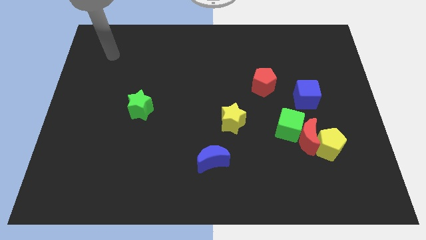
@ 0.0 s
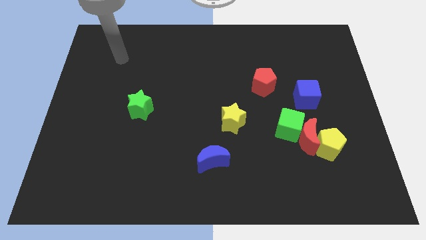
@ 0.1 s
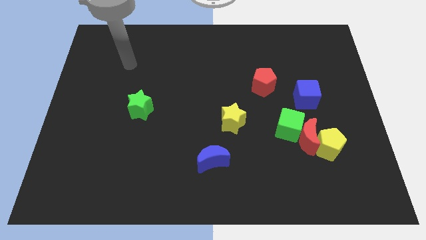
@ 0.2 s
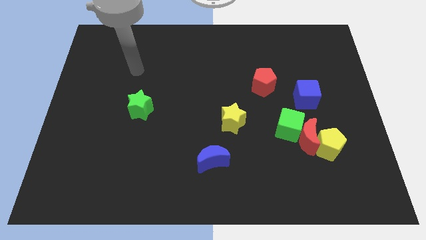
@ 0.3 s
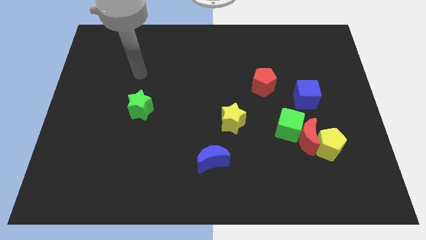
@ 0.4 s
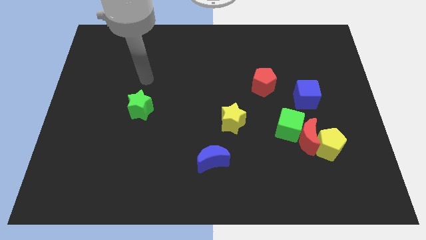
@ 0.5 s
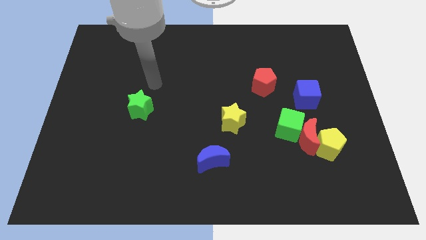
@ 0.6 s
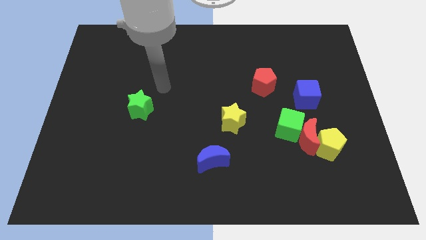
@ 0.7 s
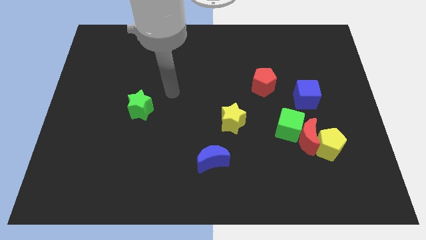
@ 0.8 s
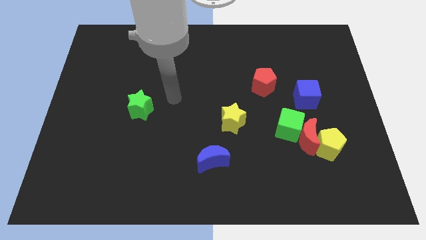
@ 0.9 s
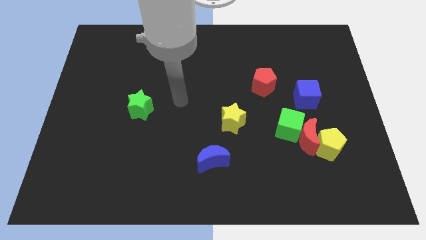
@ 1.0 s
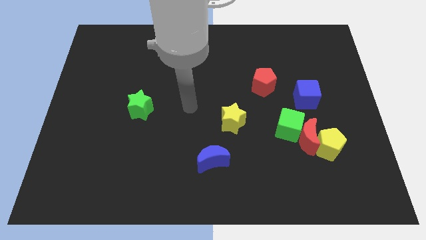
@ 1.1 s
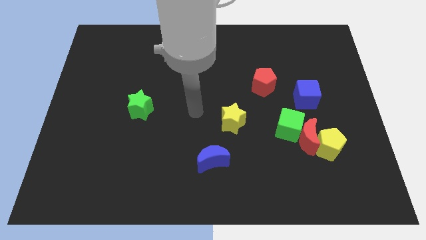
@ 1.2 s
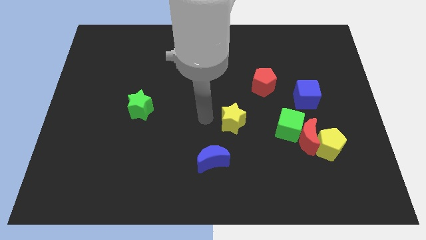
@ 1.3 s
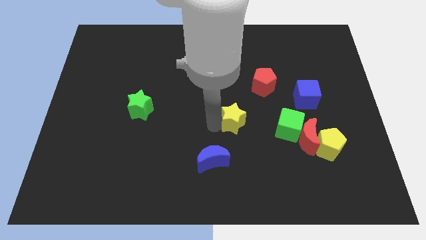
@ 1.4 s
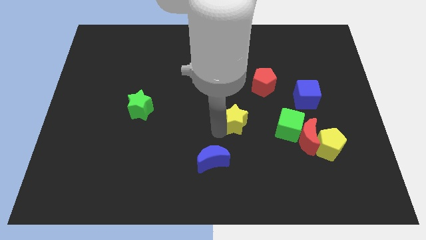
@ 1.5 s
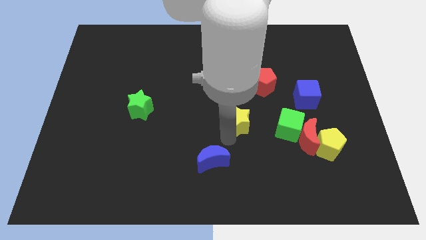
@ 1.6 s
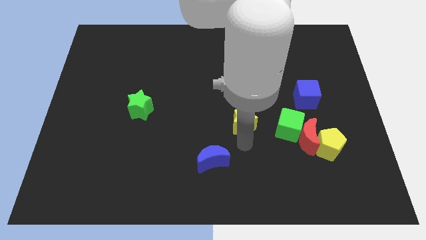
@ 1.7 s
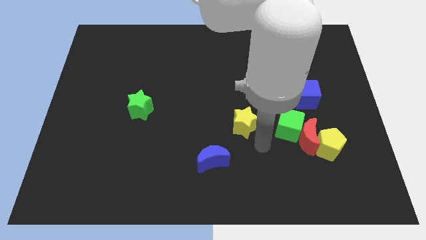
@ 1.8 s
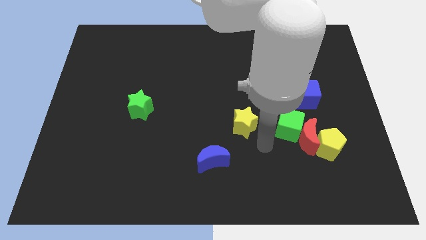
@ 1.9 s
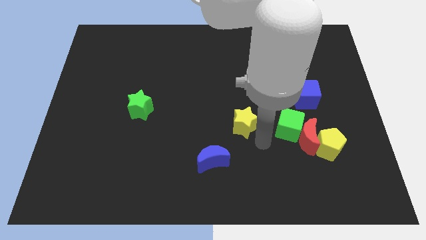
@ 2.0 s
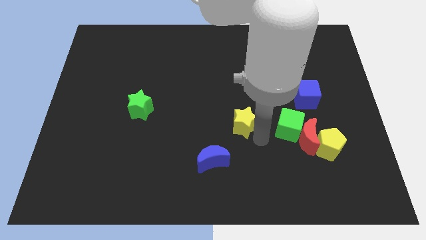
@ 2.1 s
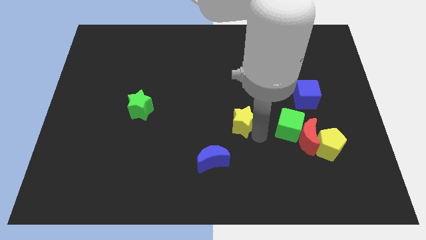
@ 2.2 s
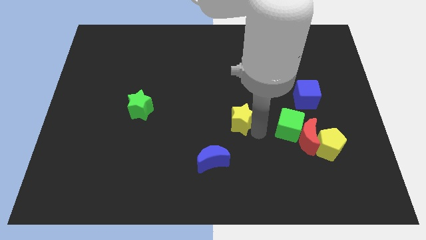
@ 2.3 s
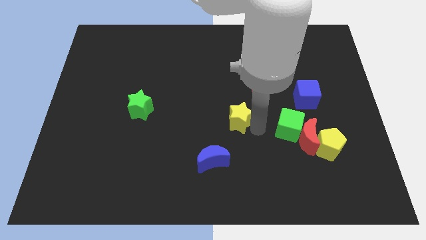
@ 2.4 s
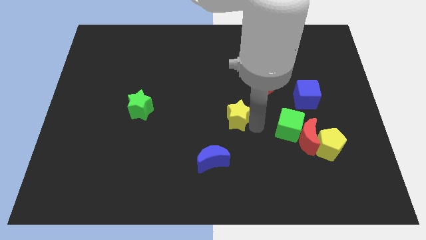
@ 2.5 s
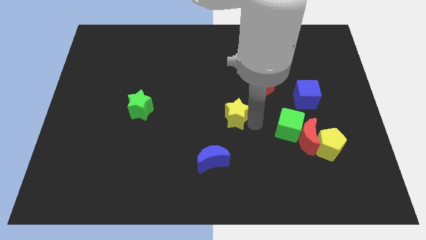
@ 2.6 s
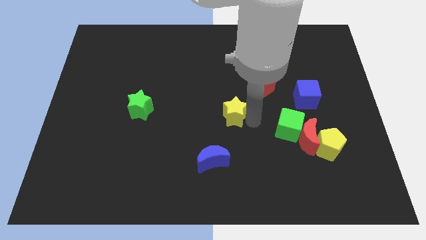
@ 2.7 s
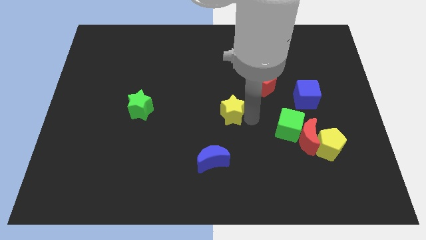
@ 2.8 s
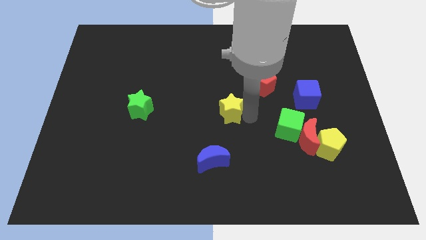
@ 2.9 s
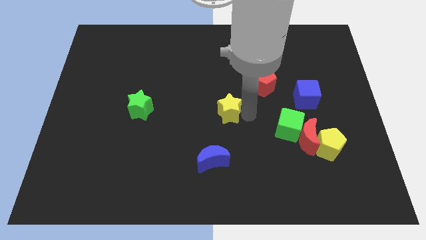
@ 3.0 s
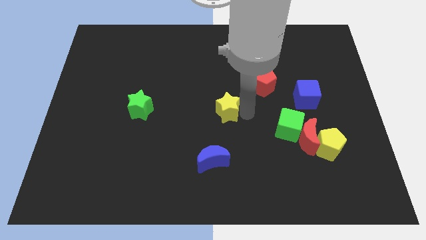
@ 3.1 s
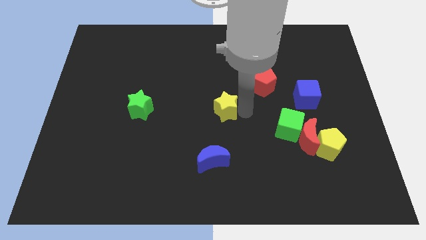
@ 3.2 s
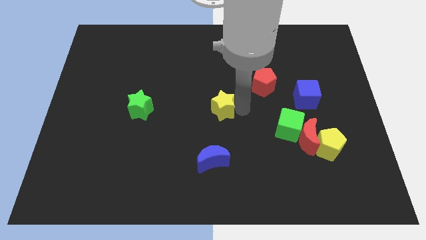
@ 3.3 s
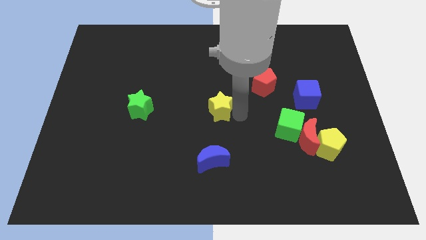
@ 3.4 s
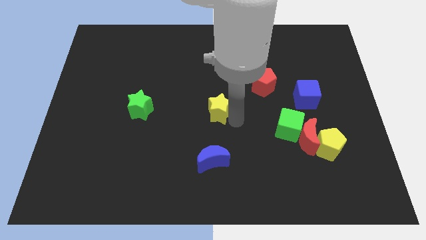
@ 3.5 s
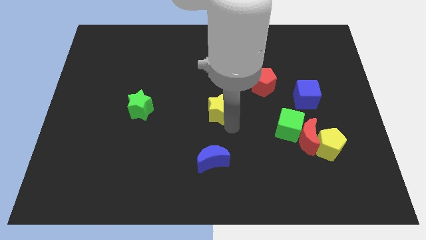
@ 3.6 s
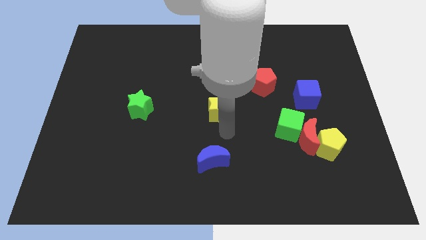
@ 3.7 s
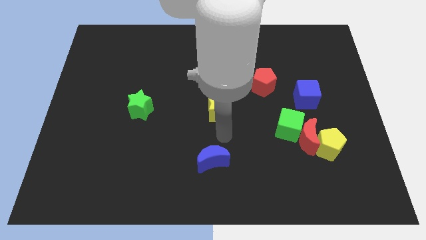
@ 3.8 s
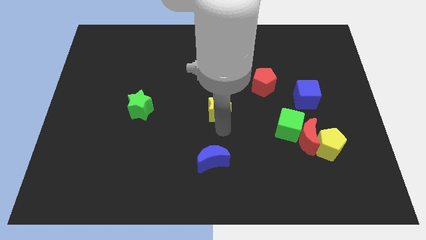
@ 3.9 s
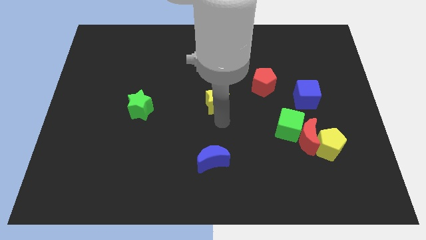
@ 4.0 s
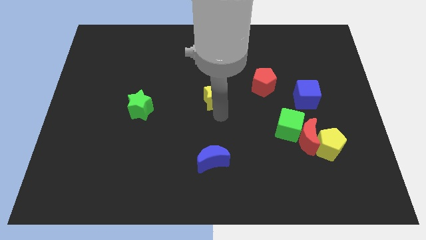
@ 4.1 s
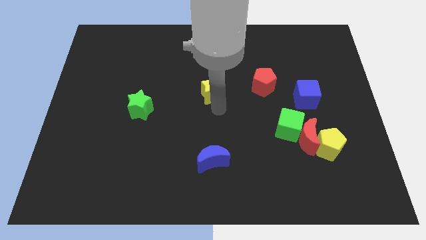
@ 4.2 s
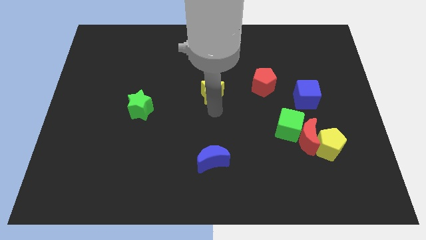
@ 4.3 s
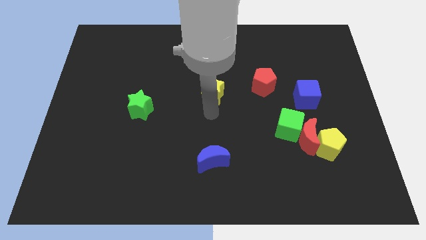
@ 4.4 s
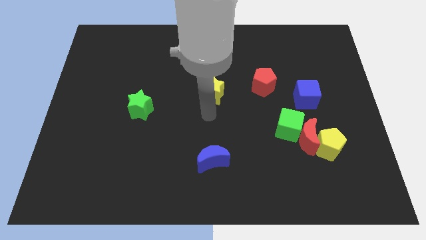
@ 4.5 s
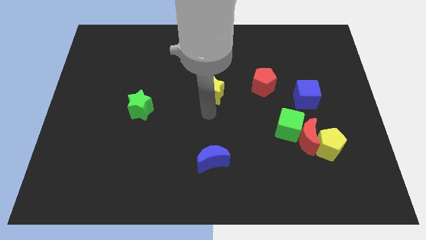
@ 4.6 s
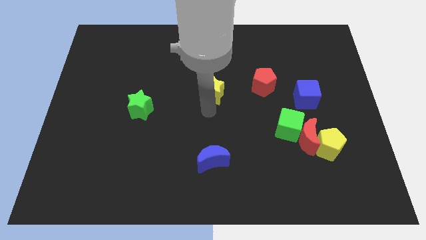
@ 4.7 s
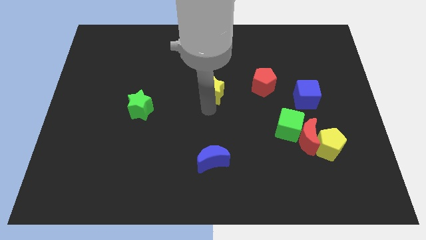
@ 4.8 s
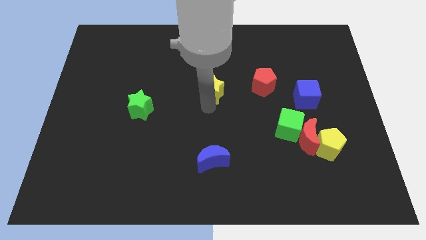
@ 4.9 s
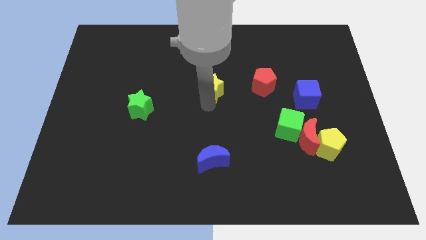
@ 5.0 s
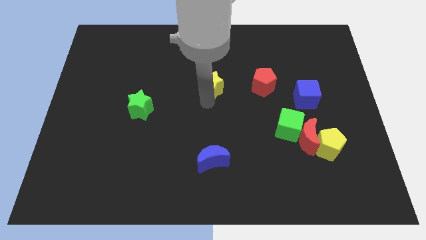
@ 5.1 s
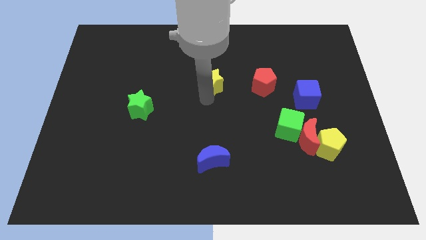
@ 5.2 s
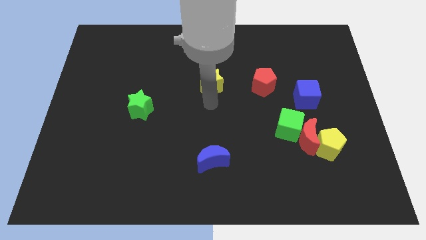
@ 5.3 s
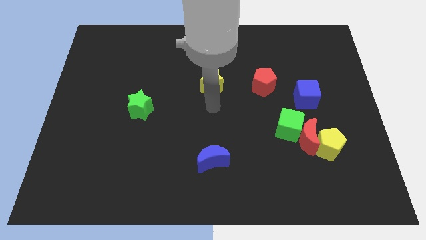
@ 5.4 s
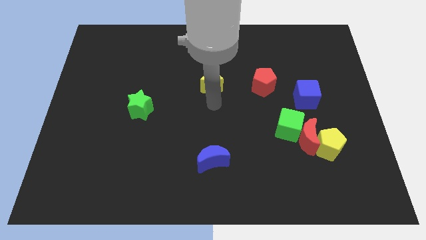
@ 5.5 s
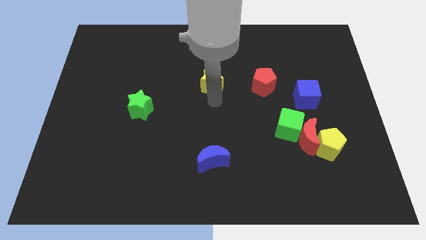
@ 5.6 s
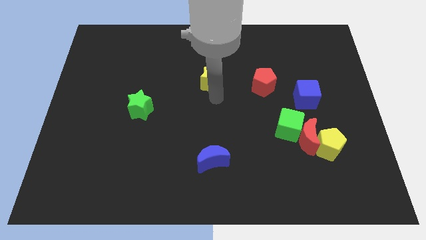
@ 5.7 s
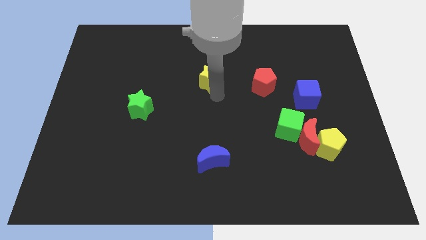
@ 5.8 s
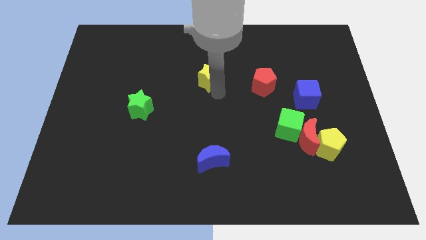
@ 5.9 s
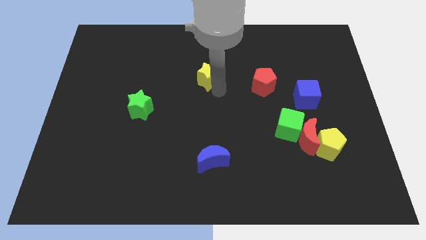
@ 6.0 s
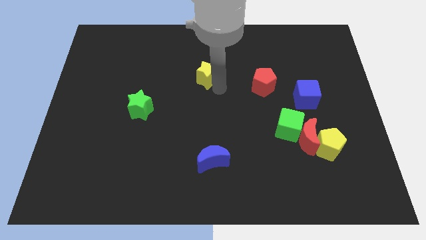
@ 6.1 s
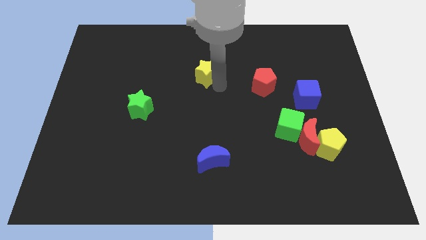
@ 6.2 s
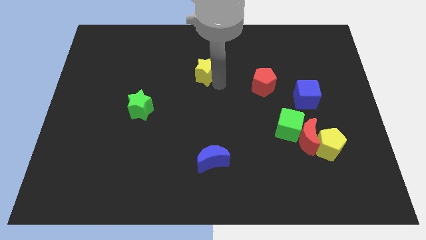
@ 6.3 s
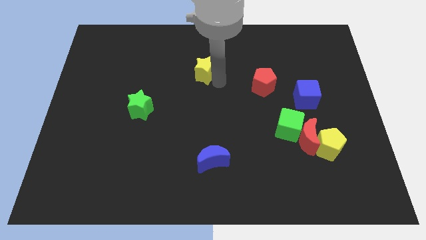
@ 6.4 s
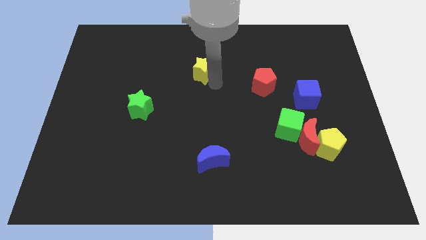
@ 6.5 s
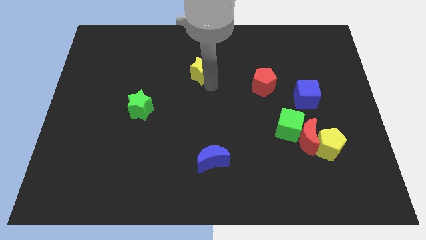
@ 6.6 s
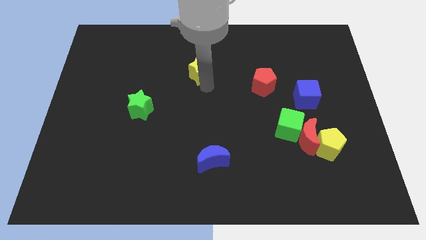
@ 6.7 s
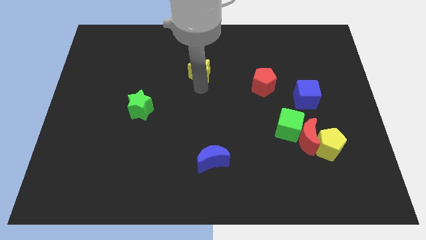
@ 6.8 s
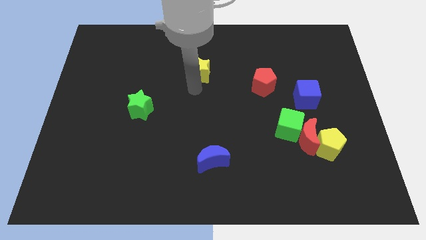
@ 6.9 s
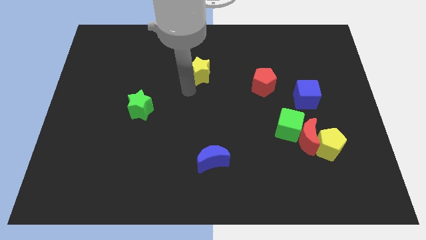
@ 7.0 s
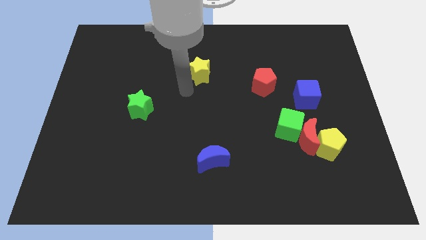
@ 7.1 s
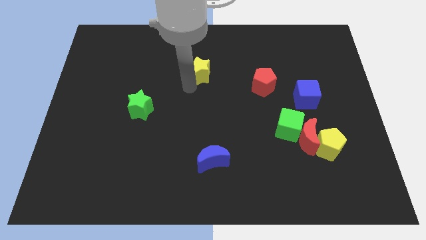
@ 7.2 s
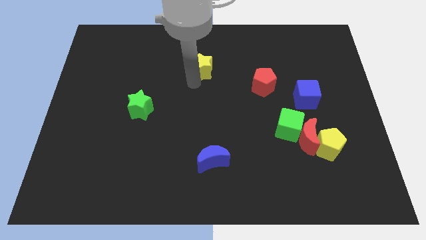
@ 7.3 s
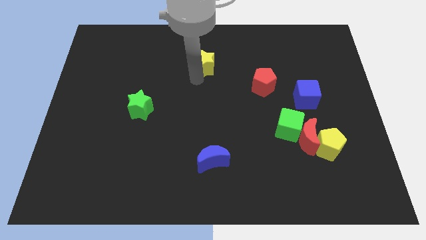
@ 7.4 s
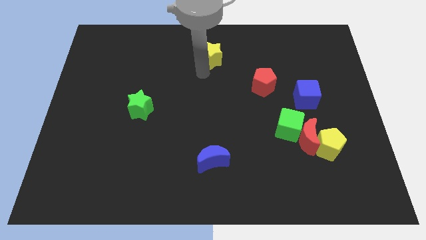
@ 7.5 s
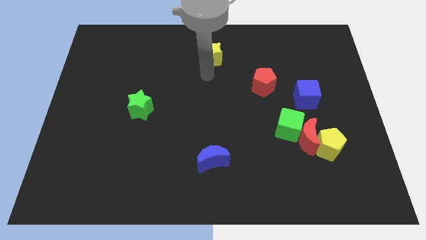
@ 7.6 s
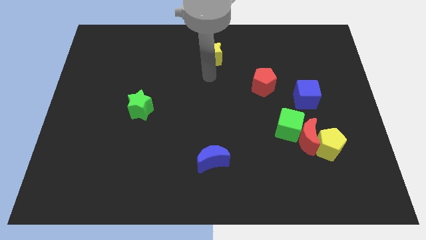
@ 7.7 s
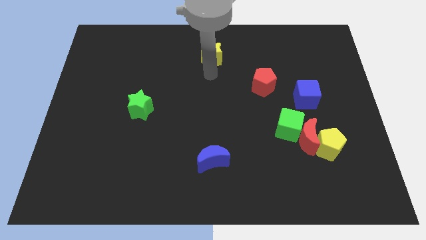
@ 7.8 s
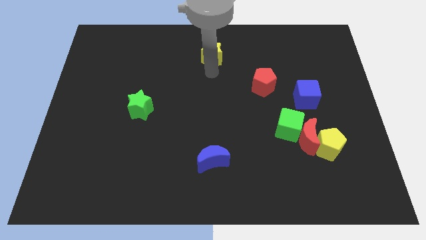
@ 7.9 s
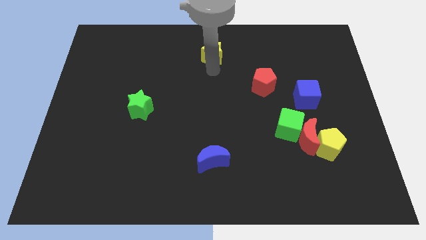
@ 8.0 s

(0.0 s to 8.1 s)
put the yellow star to the towards your base
